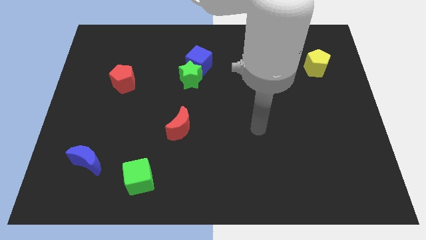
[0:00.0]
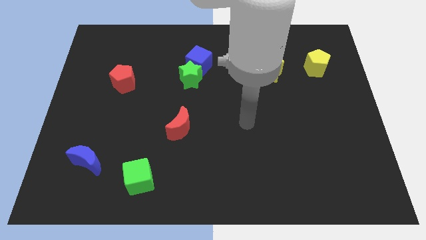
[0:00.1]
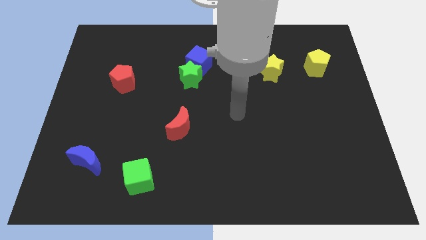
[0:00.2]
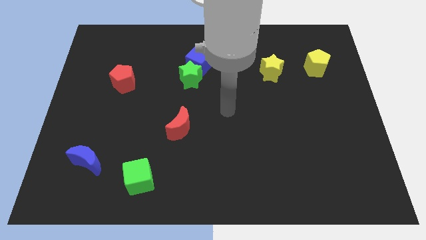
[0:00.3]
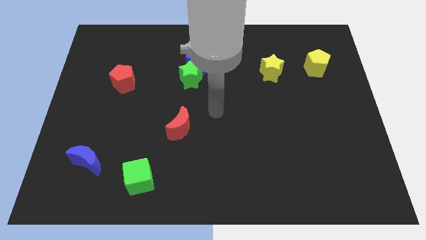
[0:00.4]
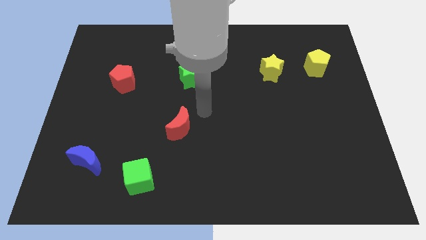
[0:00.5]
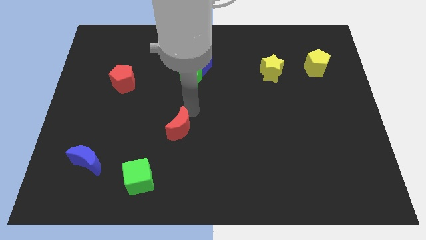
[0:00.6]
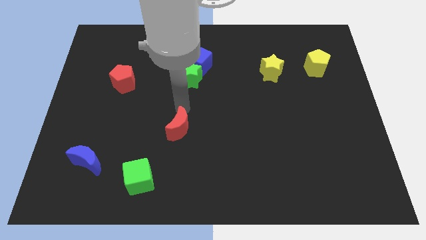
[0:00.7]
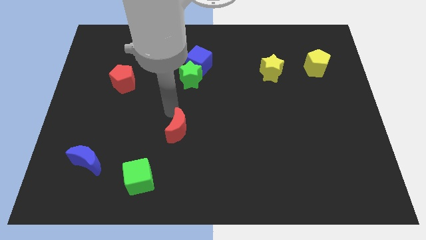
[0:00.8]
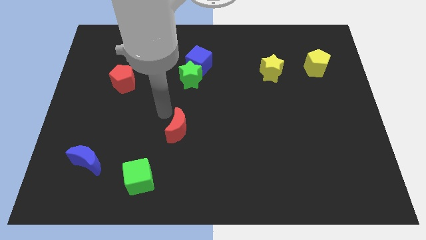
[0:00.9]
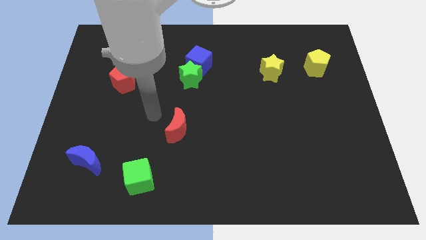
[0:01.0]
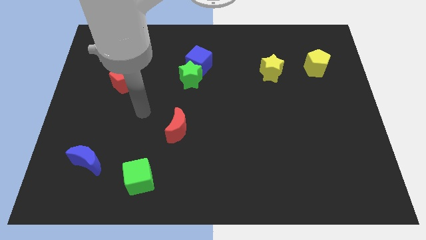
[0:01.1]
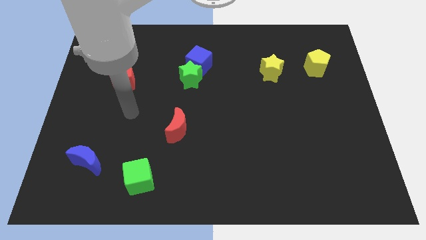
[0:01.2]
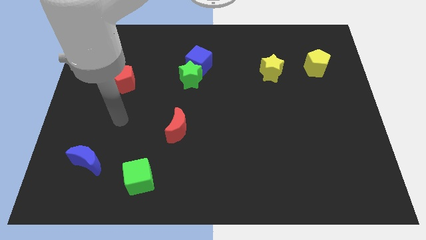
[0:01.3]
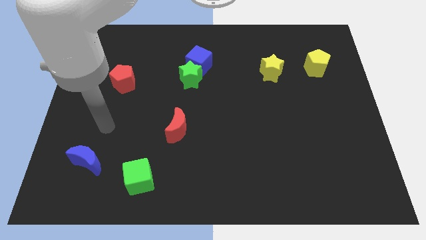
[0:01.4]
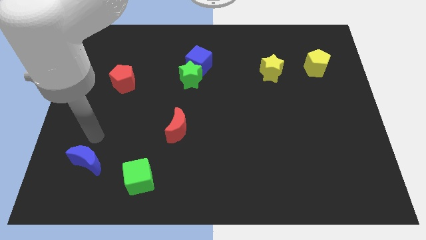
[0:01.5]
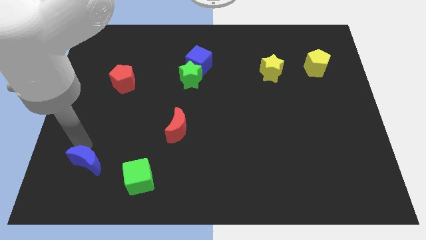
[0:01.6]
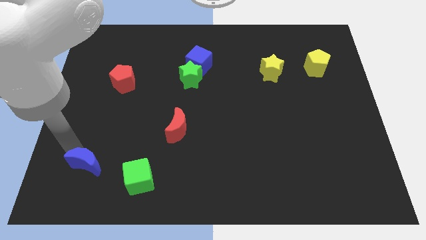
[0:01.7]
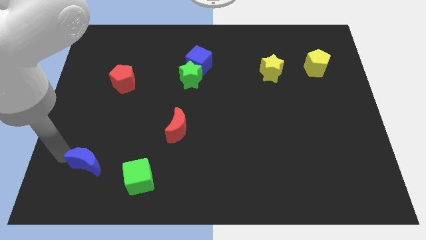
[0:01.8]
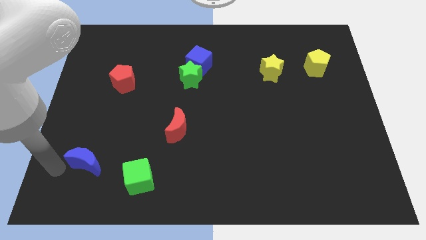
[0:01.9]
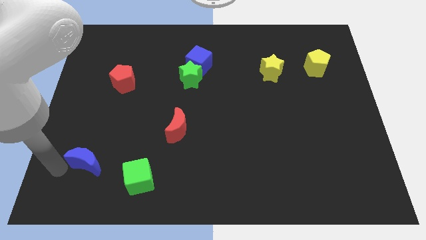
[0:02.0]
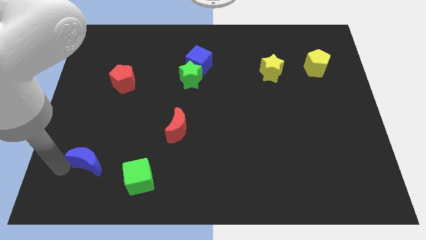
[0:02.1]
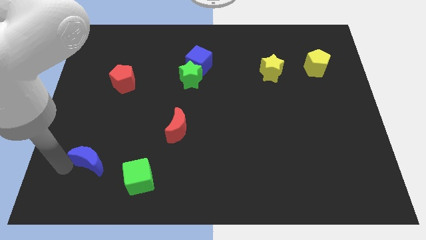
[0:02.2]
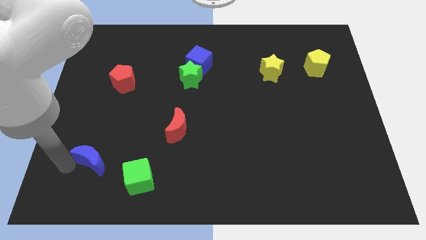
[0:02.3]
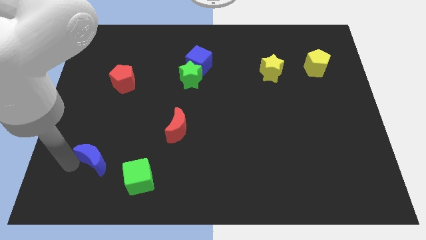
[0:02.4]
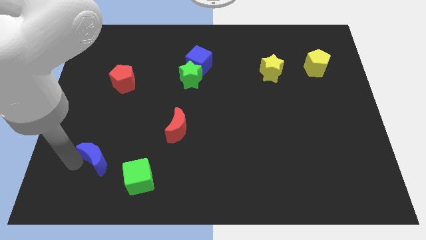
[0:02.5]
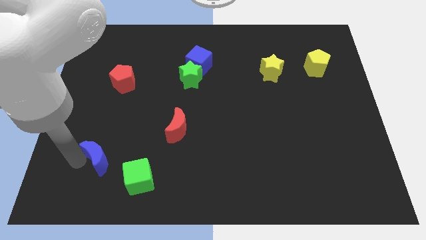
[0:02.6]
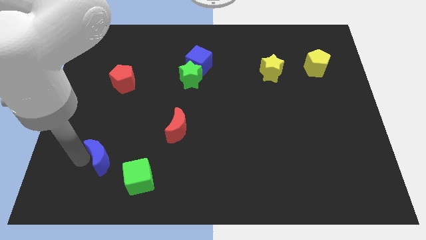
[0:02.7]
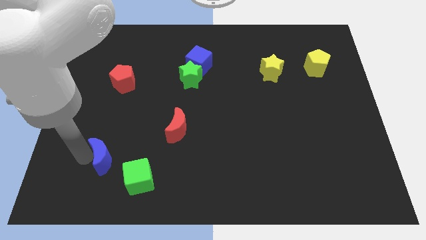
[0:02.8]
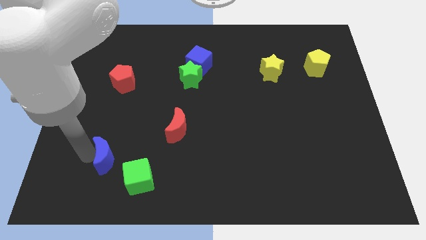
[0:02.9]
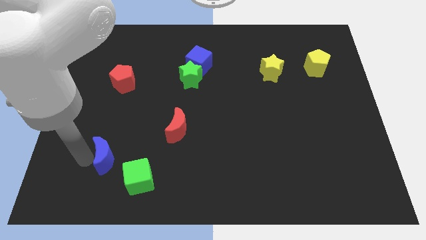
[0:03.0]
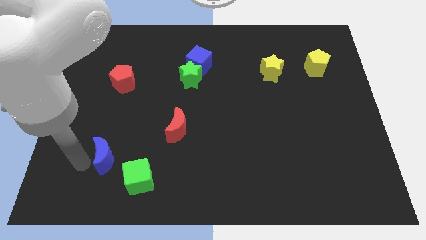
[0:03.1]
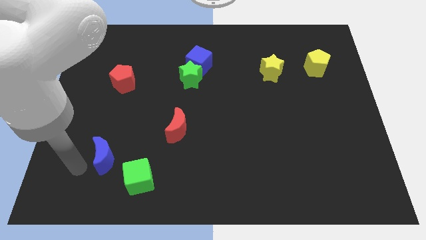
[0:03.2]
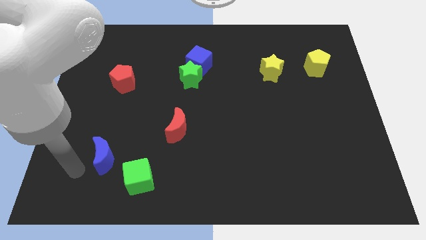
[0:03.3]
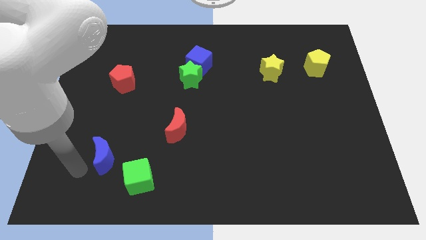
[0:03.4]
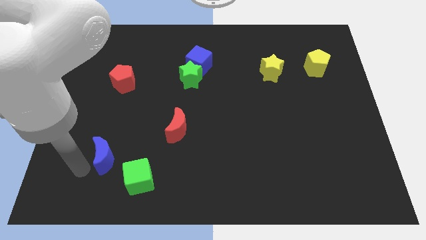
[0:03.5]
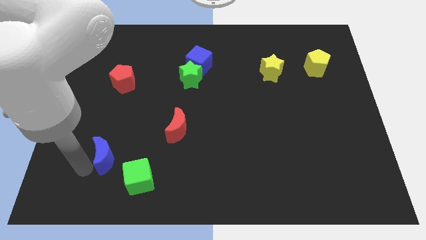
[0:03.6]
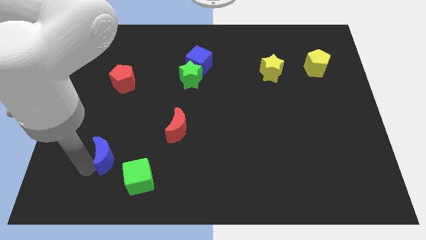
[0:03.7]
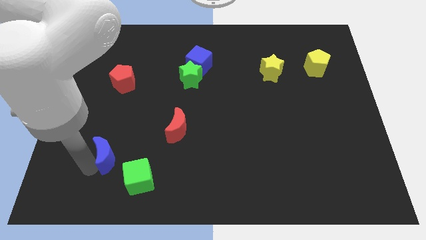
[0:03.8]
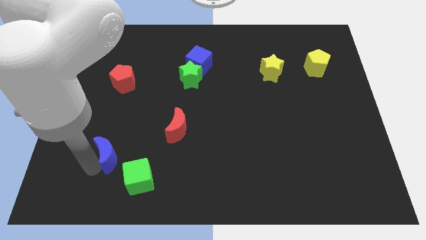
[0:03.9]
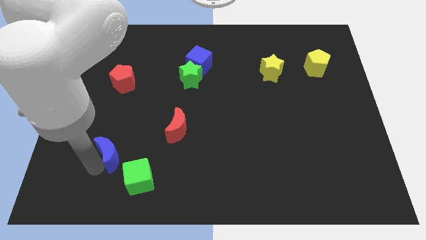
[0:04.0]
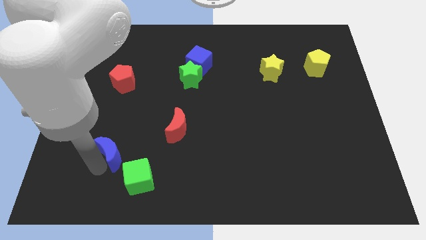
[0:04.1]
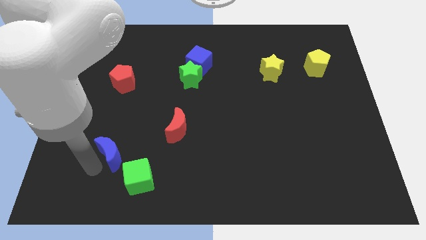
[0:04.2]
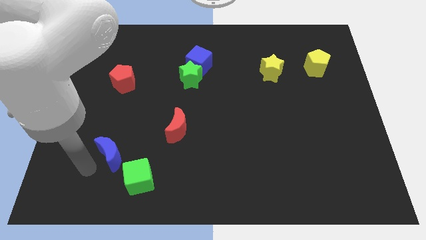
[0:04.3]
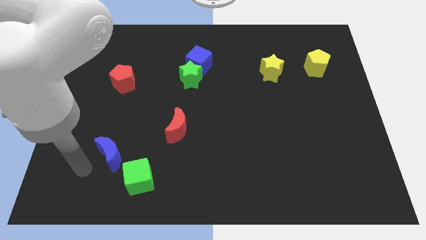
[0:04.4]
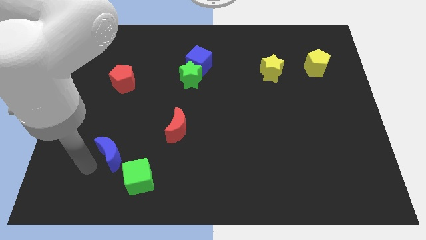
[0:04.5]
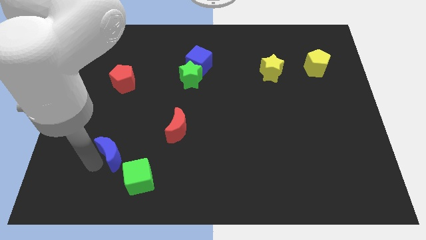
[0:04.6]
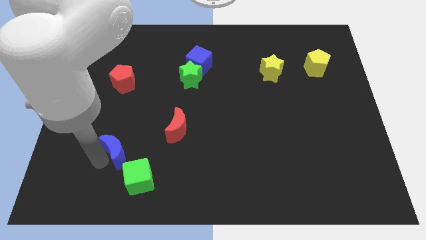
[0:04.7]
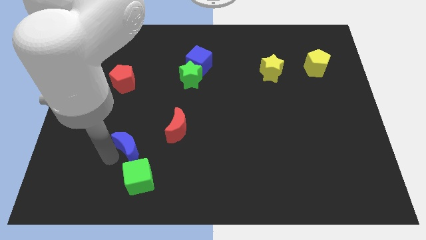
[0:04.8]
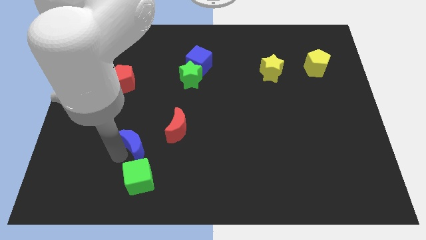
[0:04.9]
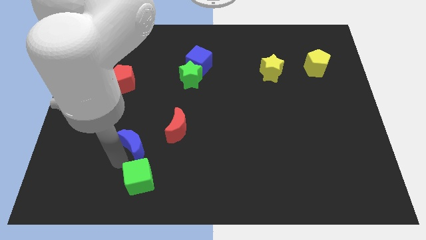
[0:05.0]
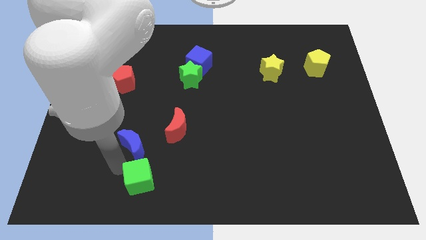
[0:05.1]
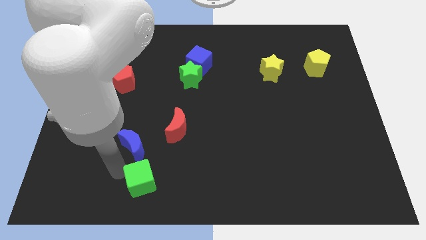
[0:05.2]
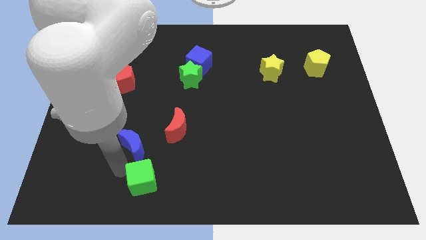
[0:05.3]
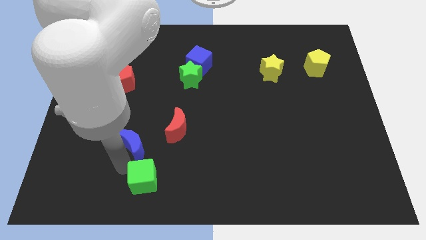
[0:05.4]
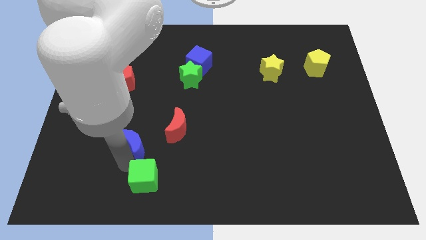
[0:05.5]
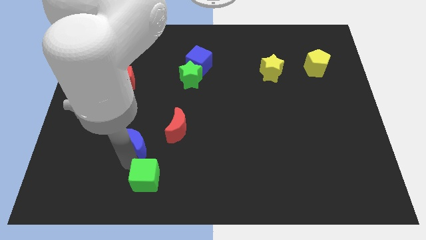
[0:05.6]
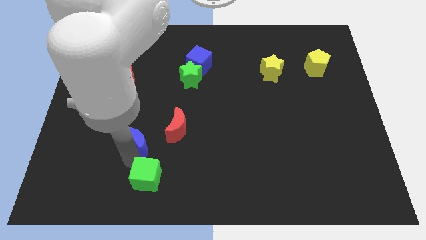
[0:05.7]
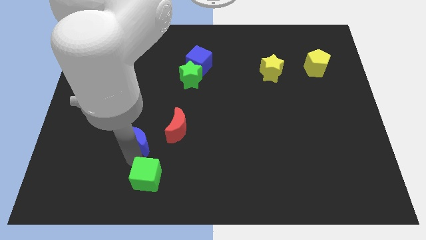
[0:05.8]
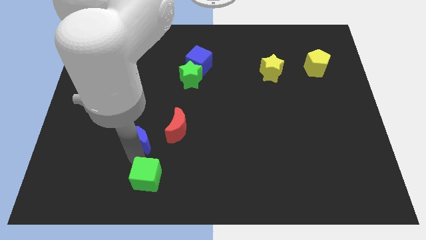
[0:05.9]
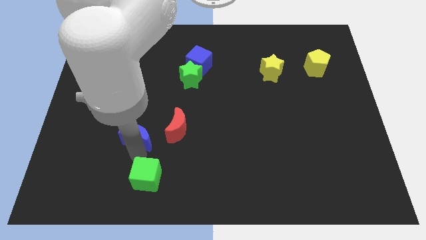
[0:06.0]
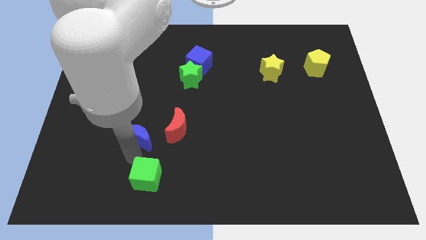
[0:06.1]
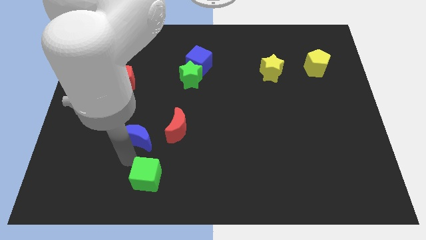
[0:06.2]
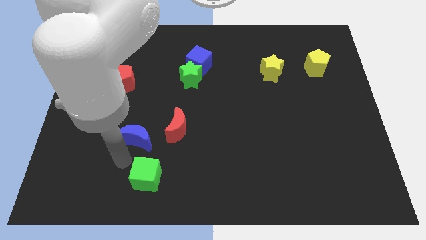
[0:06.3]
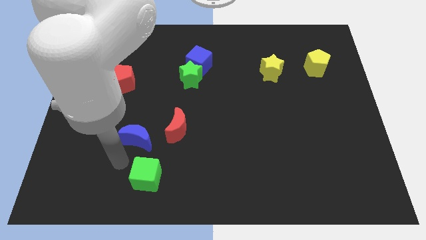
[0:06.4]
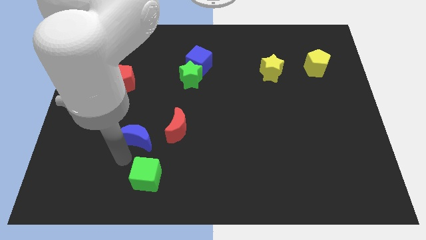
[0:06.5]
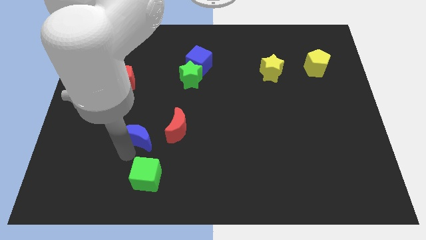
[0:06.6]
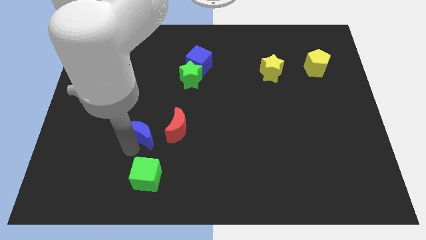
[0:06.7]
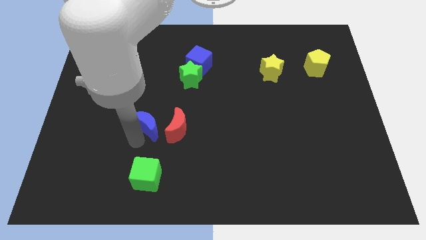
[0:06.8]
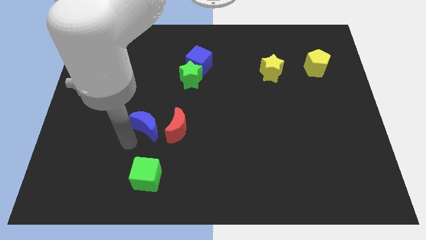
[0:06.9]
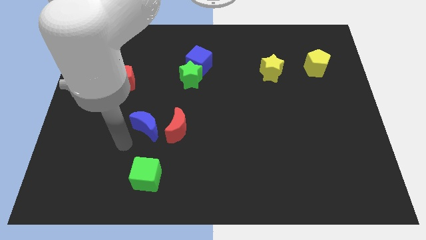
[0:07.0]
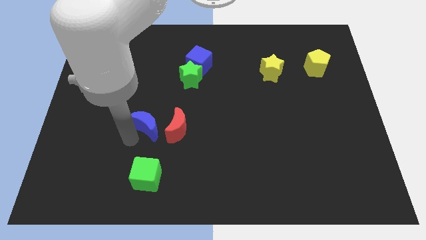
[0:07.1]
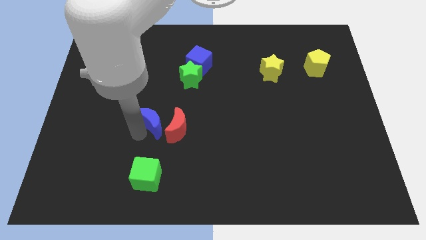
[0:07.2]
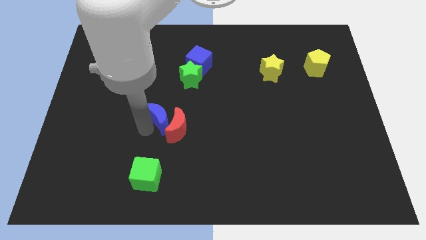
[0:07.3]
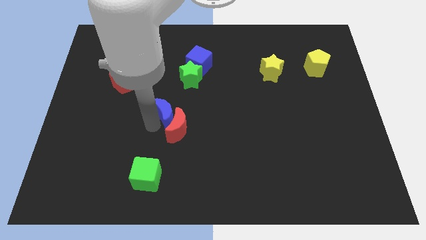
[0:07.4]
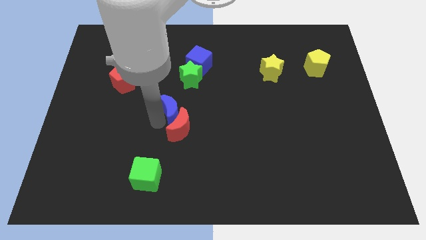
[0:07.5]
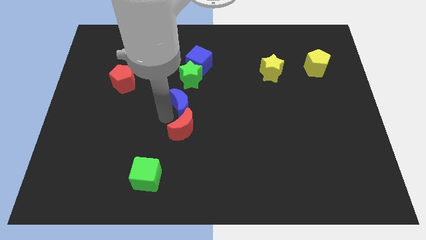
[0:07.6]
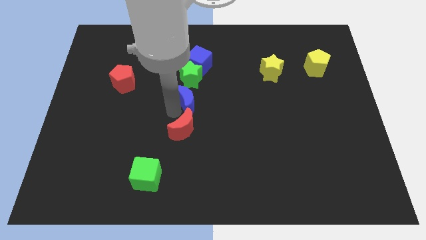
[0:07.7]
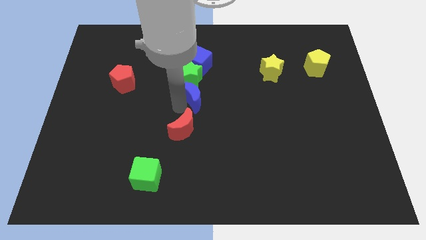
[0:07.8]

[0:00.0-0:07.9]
push the blue moon to the bottom right side of the green star
